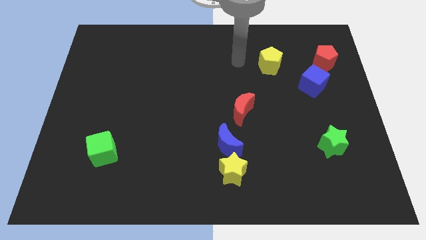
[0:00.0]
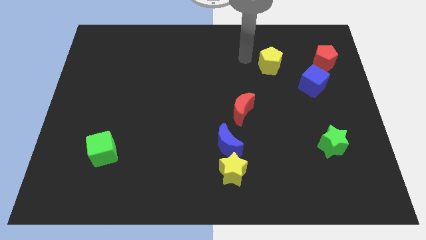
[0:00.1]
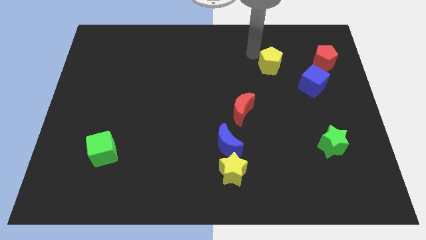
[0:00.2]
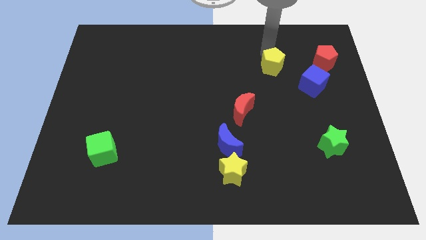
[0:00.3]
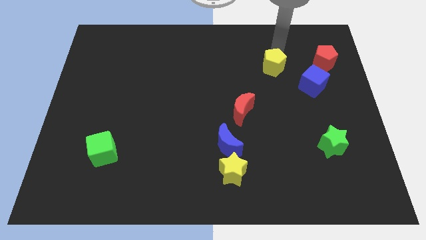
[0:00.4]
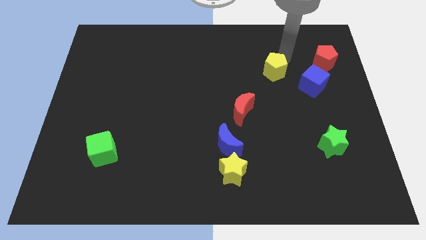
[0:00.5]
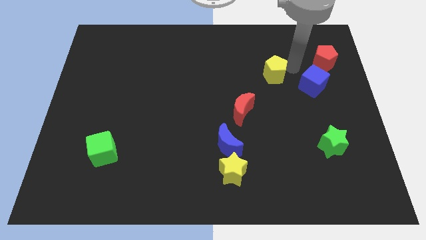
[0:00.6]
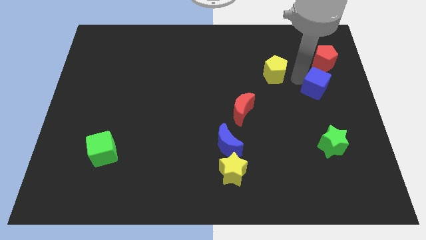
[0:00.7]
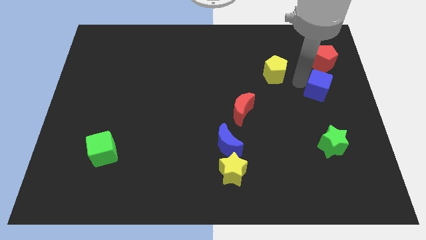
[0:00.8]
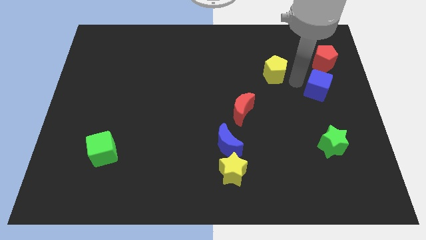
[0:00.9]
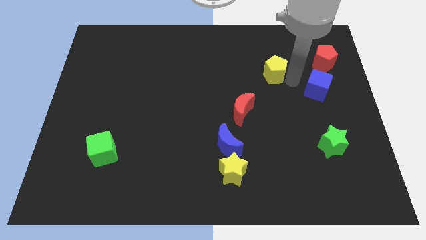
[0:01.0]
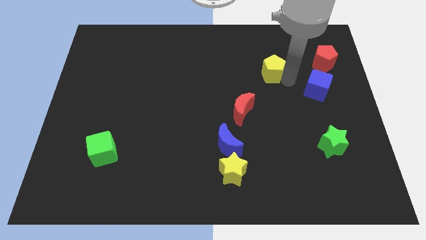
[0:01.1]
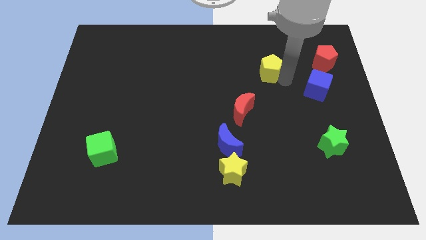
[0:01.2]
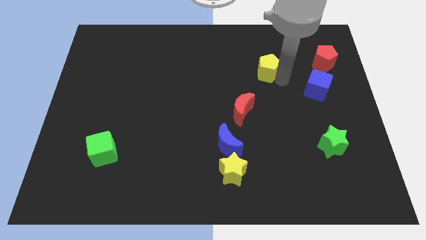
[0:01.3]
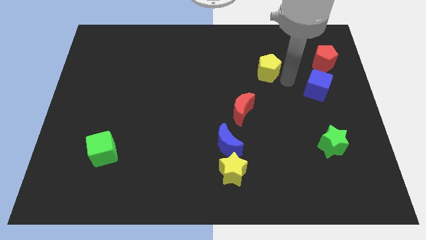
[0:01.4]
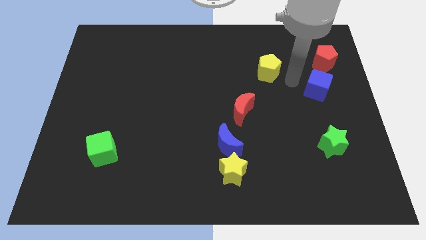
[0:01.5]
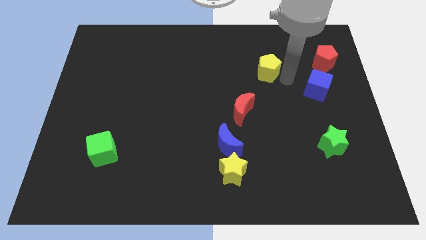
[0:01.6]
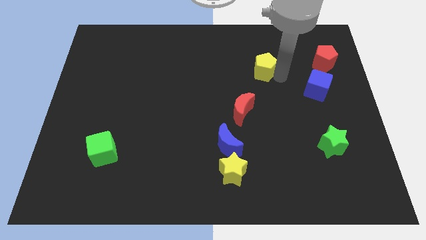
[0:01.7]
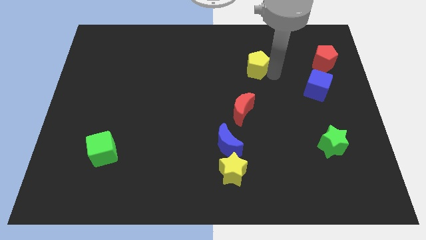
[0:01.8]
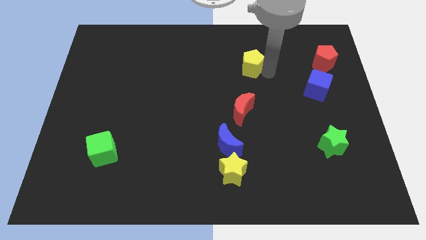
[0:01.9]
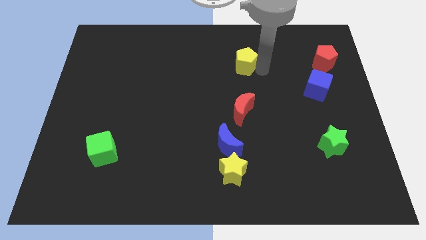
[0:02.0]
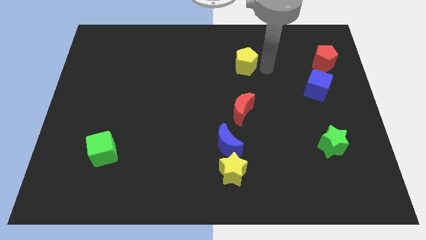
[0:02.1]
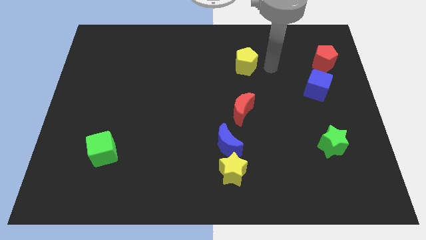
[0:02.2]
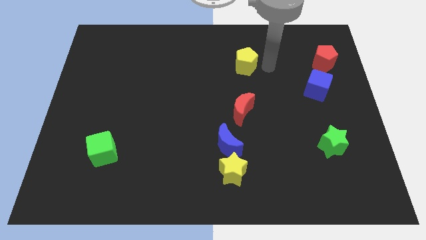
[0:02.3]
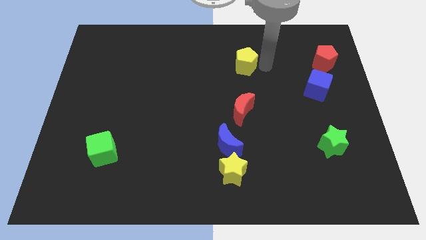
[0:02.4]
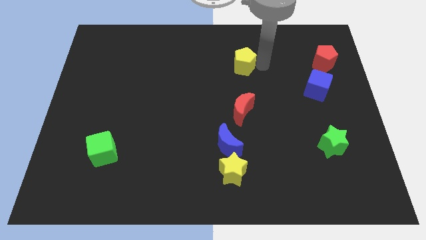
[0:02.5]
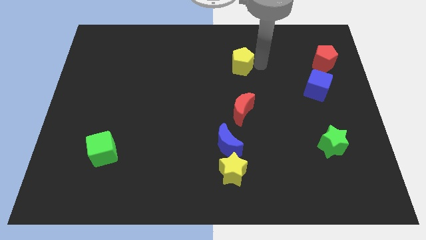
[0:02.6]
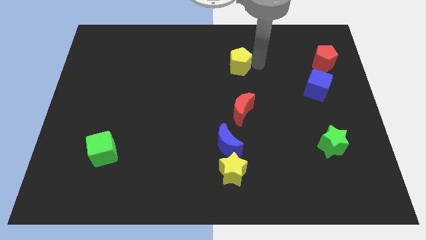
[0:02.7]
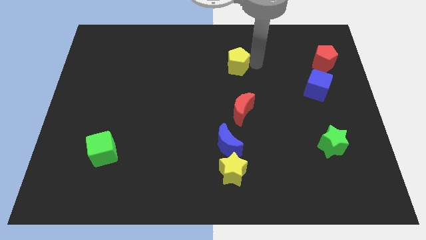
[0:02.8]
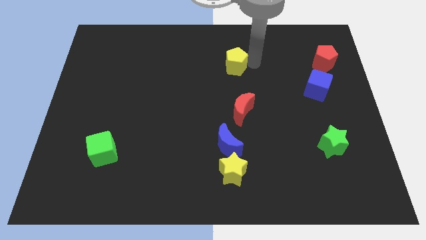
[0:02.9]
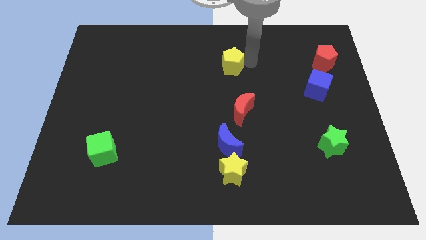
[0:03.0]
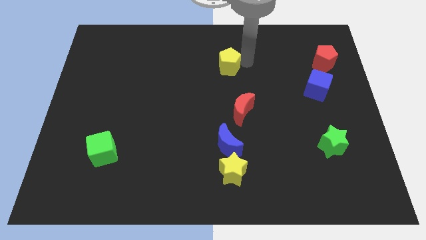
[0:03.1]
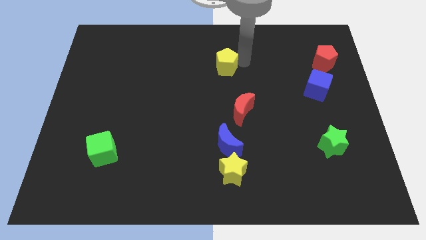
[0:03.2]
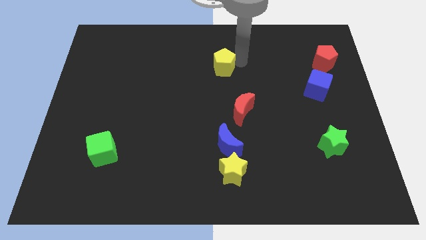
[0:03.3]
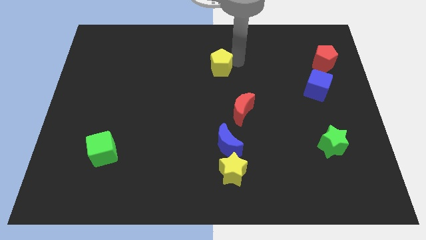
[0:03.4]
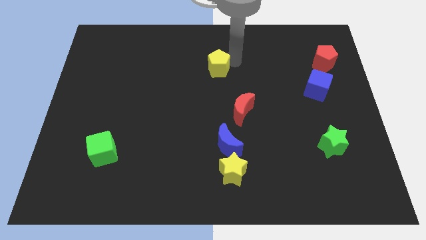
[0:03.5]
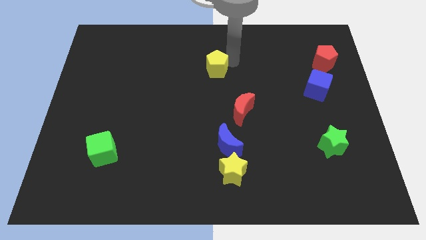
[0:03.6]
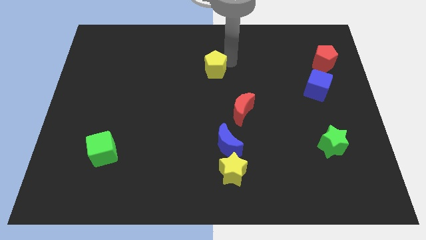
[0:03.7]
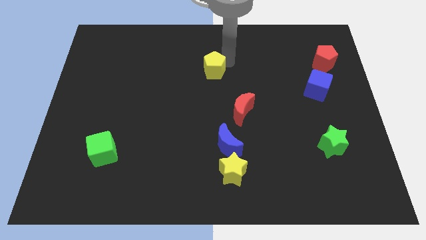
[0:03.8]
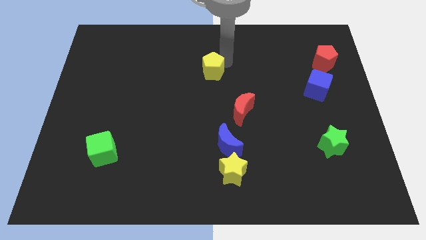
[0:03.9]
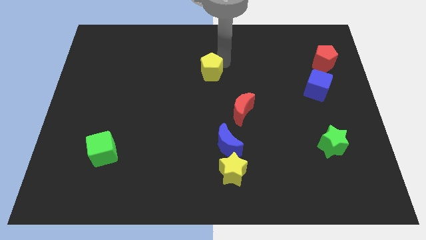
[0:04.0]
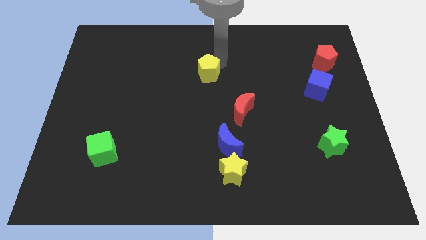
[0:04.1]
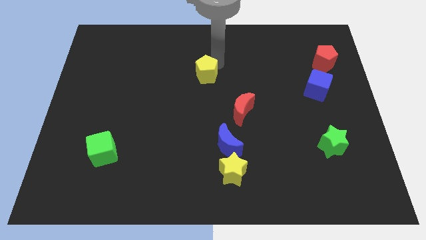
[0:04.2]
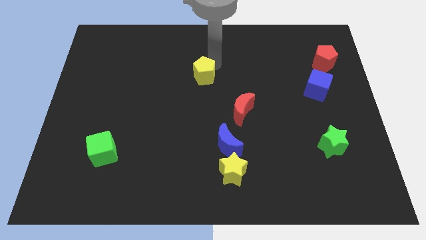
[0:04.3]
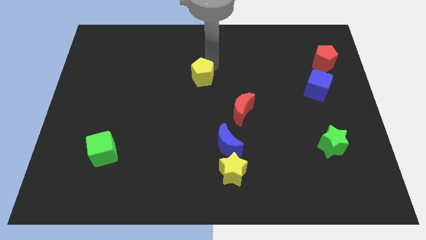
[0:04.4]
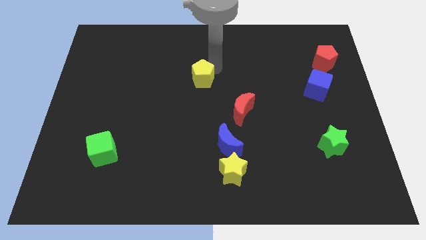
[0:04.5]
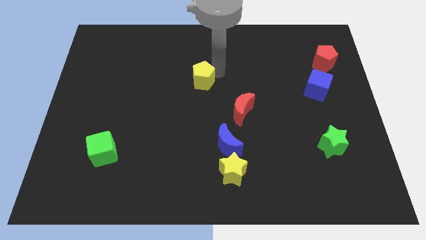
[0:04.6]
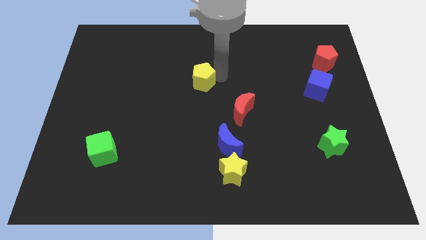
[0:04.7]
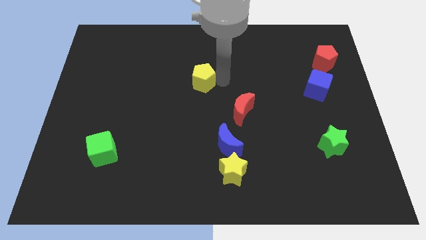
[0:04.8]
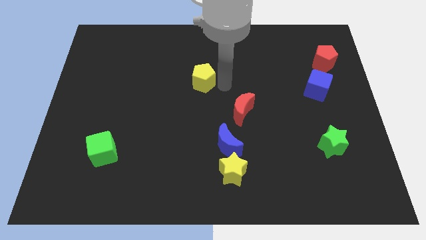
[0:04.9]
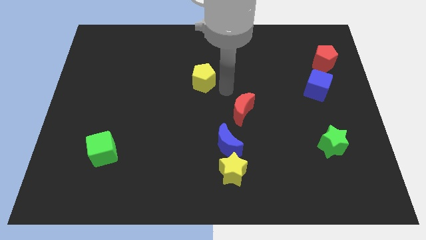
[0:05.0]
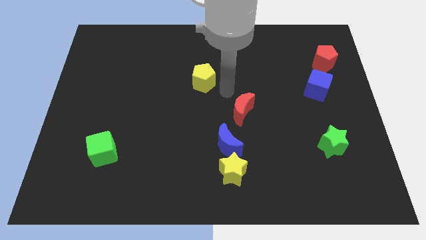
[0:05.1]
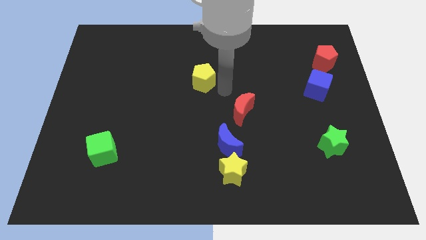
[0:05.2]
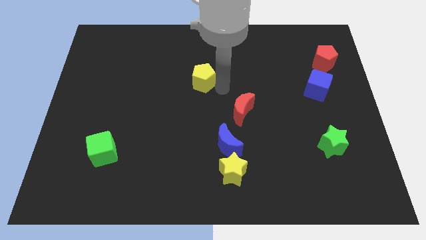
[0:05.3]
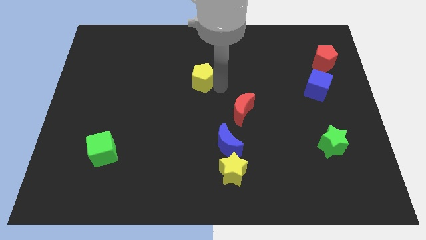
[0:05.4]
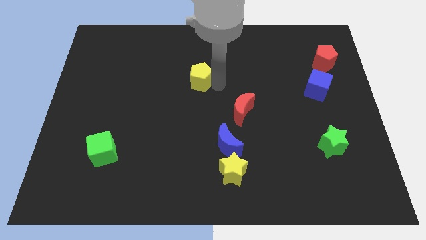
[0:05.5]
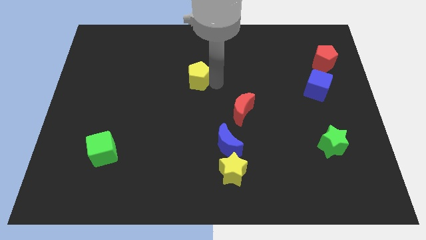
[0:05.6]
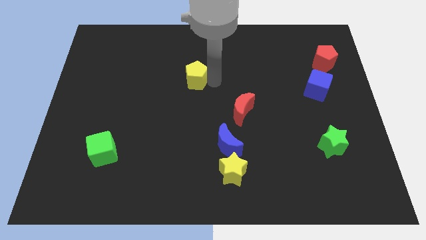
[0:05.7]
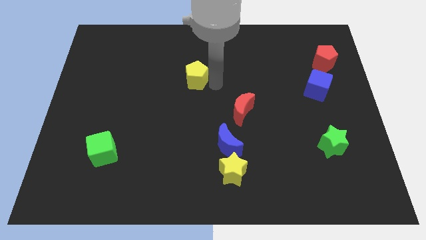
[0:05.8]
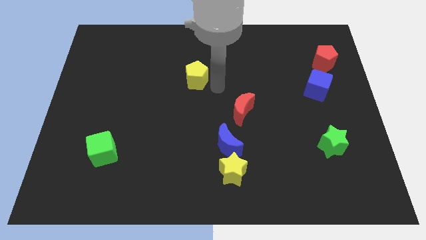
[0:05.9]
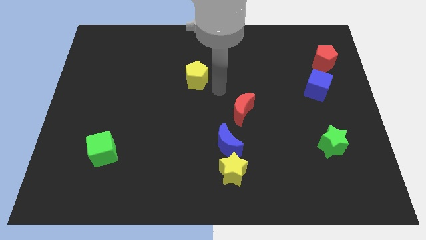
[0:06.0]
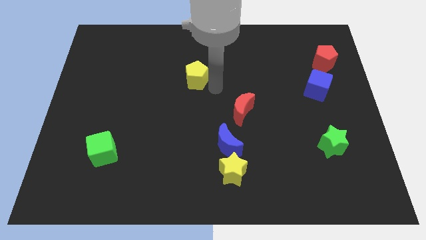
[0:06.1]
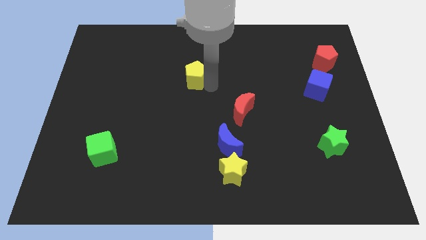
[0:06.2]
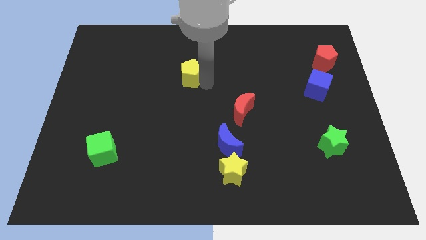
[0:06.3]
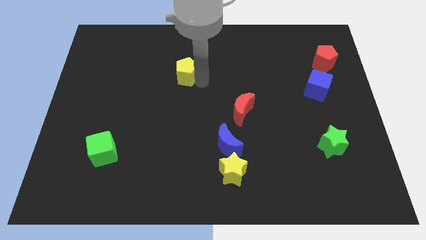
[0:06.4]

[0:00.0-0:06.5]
push the yellow pentagon to the left

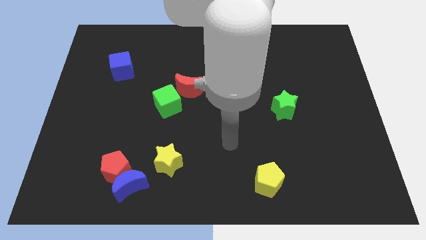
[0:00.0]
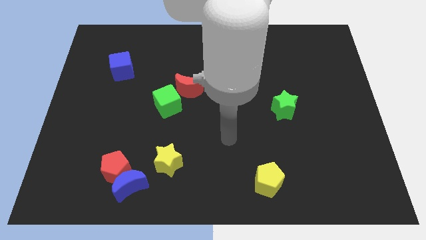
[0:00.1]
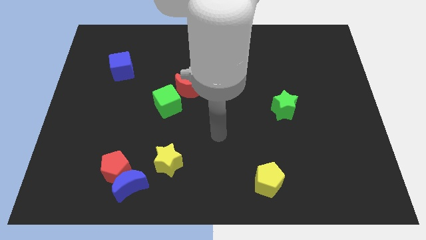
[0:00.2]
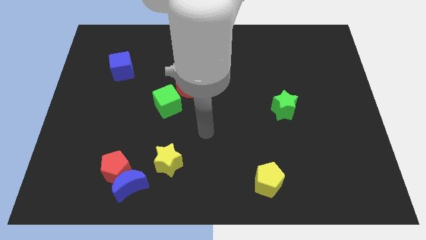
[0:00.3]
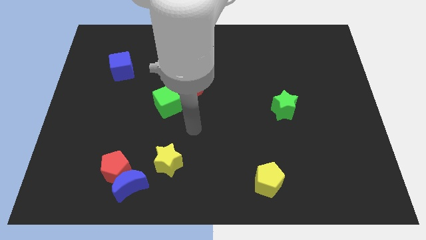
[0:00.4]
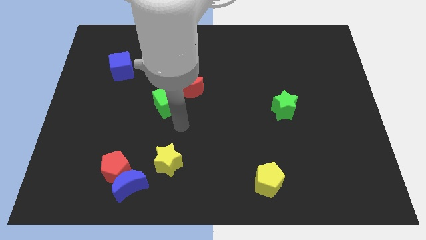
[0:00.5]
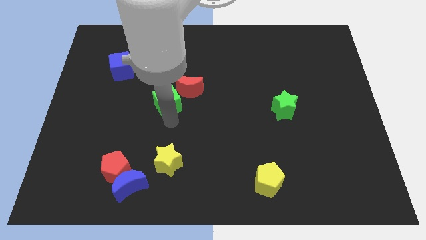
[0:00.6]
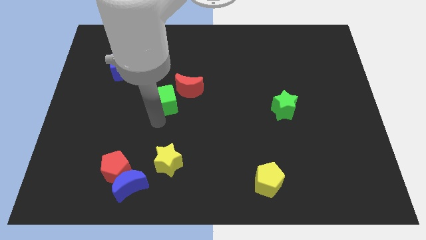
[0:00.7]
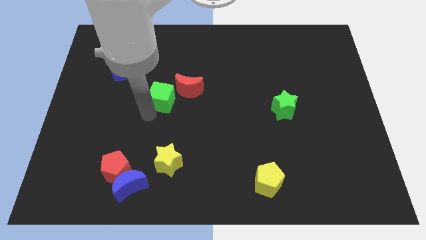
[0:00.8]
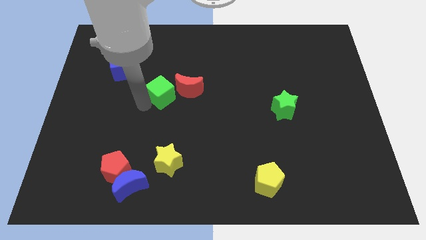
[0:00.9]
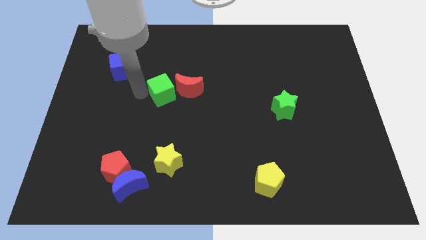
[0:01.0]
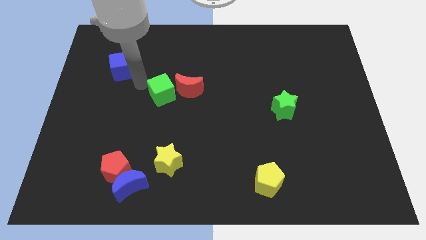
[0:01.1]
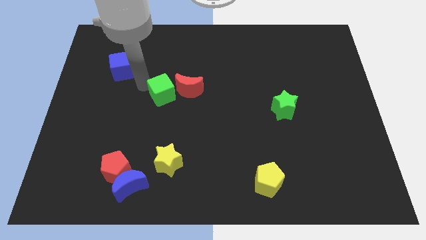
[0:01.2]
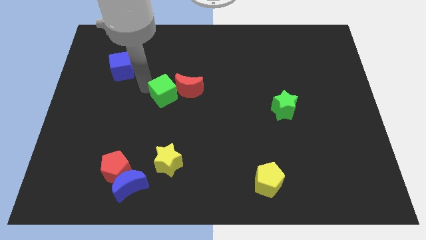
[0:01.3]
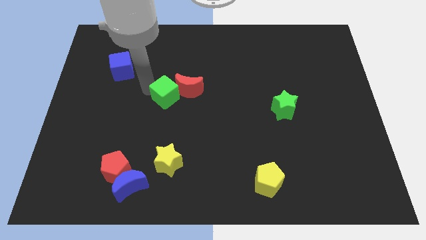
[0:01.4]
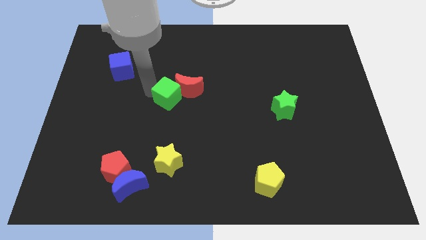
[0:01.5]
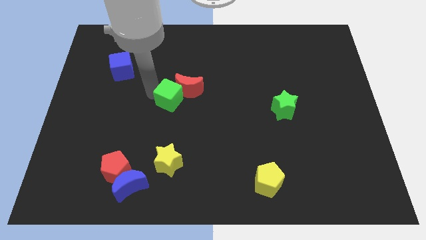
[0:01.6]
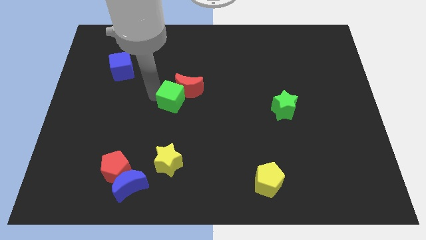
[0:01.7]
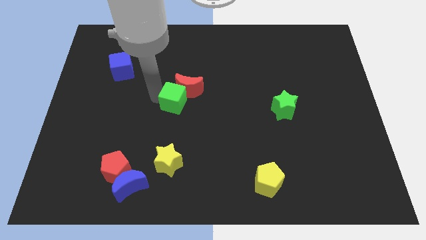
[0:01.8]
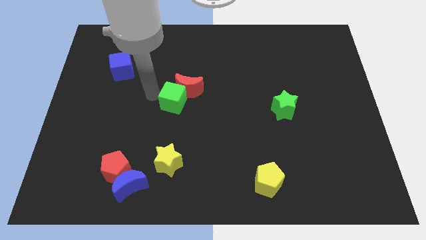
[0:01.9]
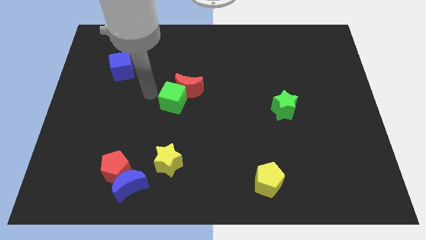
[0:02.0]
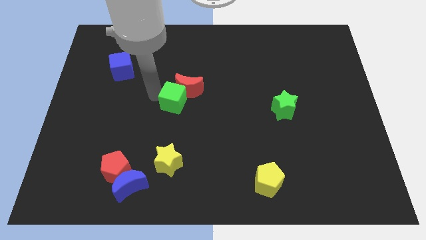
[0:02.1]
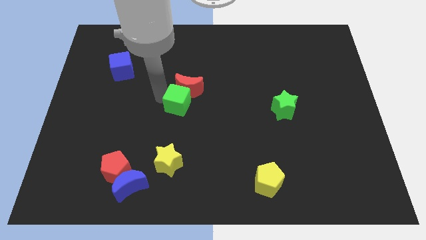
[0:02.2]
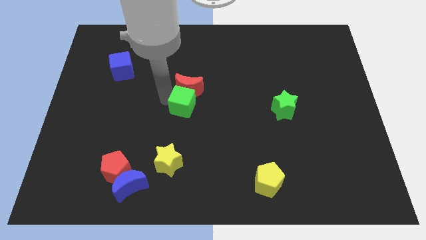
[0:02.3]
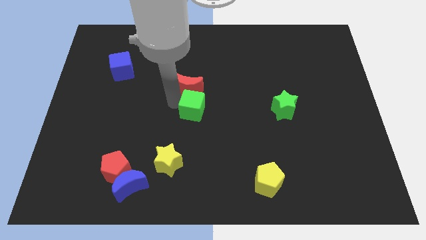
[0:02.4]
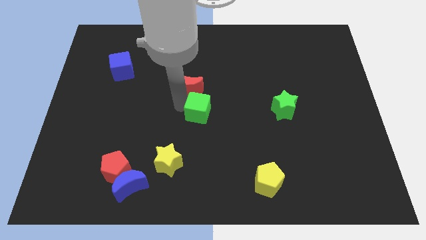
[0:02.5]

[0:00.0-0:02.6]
slightly slide the green cube to the right
